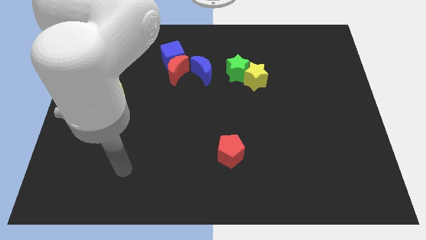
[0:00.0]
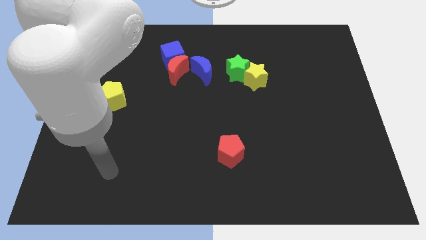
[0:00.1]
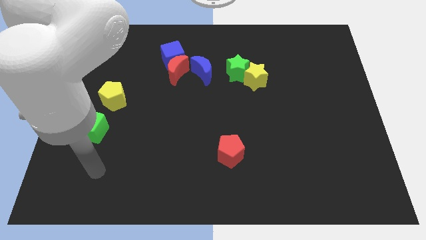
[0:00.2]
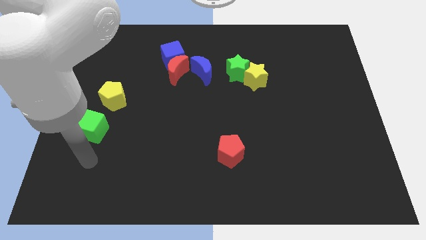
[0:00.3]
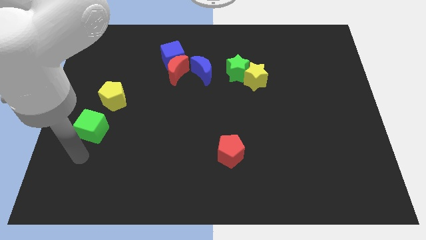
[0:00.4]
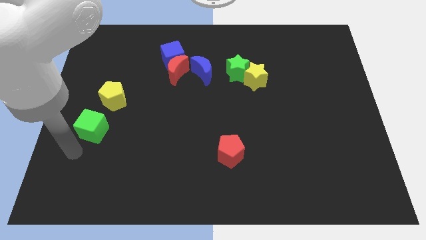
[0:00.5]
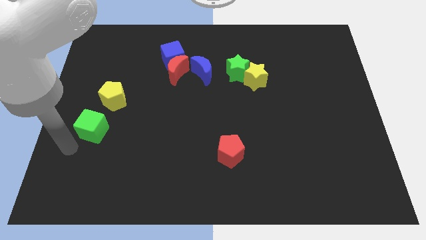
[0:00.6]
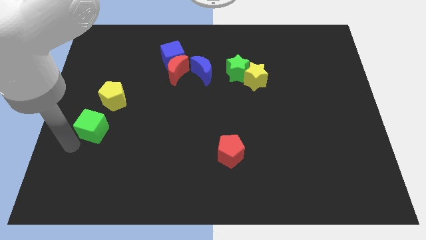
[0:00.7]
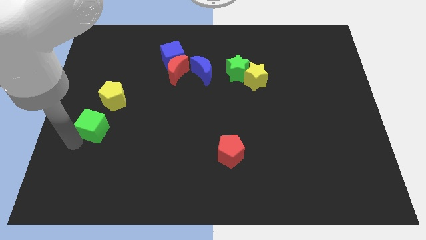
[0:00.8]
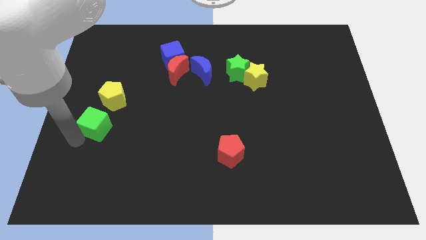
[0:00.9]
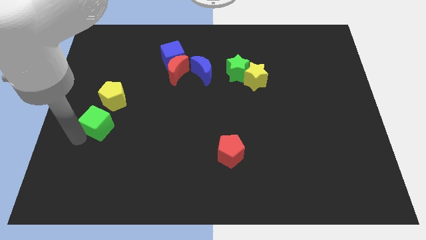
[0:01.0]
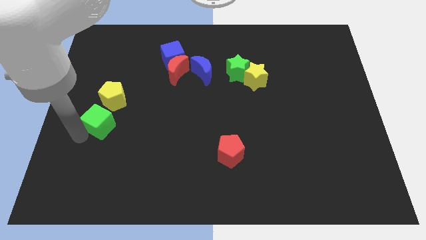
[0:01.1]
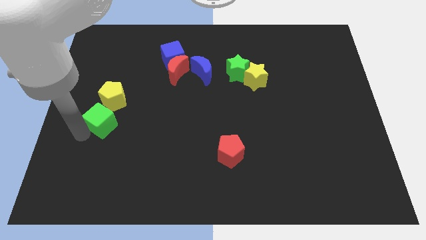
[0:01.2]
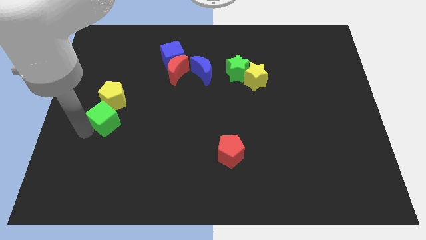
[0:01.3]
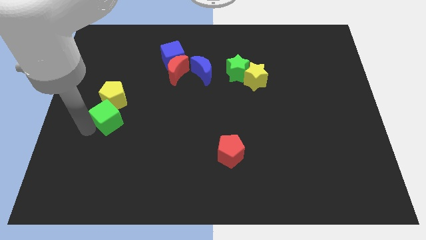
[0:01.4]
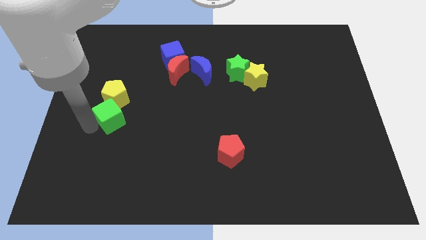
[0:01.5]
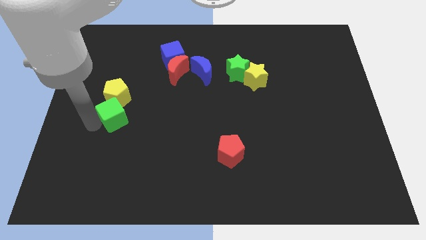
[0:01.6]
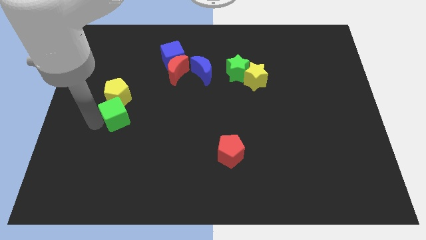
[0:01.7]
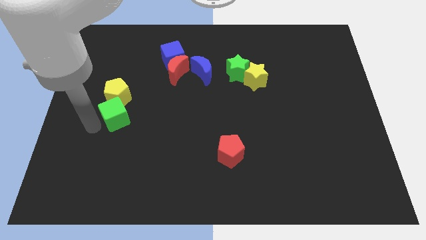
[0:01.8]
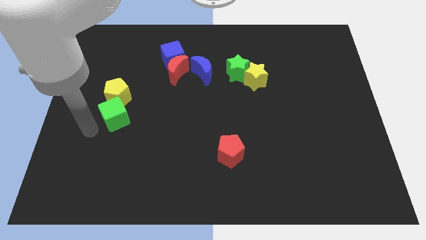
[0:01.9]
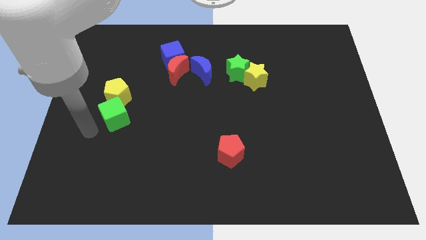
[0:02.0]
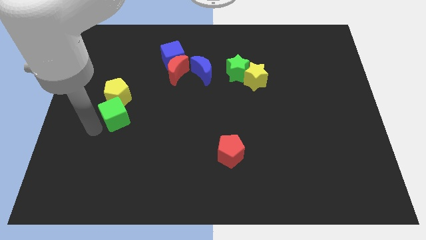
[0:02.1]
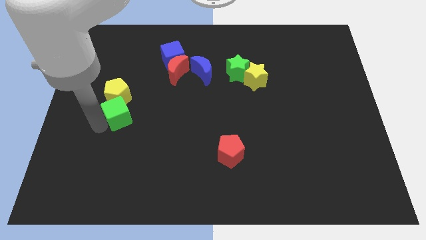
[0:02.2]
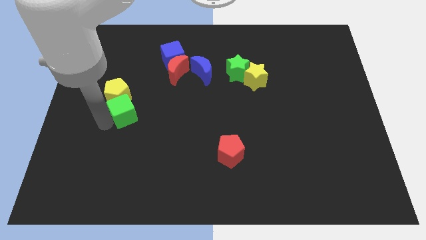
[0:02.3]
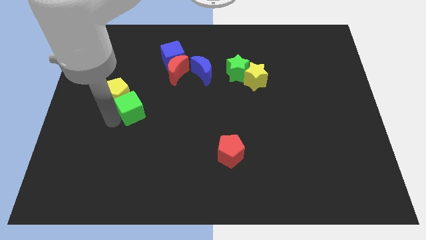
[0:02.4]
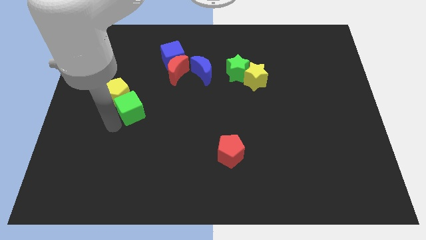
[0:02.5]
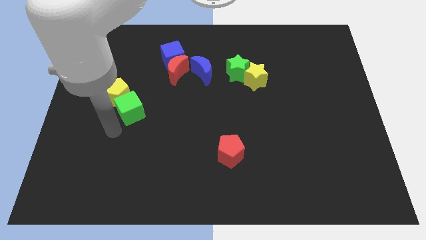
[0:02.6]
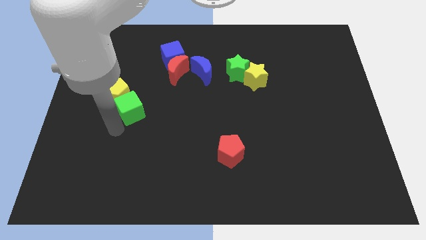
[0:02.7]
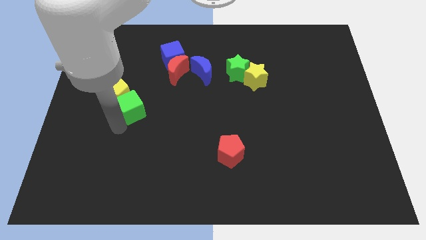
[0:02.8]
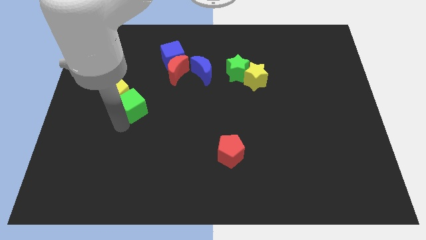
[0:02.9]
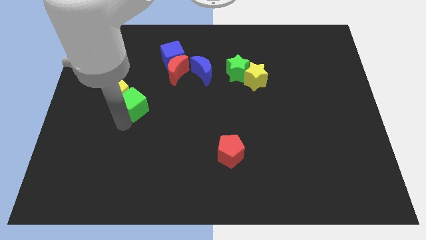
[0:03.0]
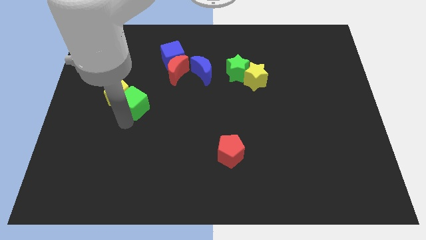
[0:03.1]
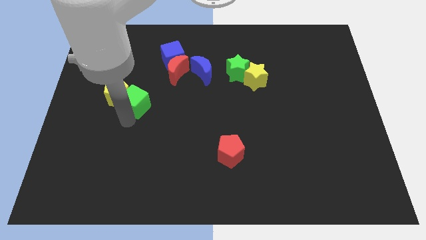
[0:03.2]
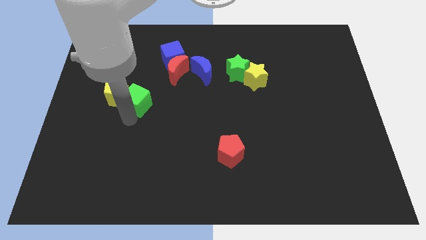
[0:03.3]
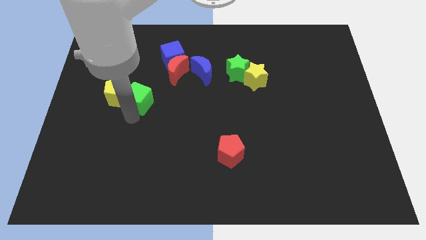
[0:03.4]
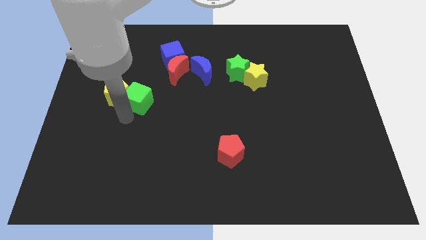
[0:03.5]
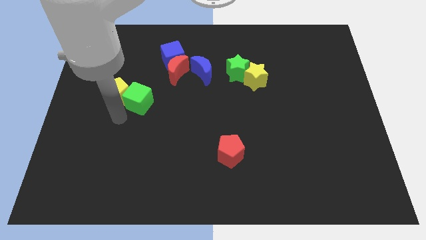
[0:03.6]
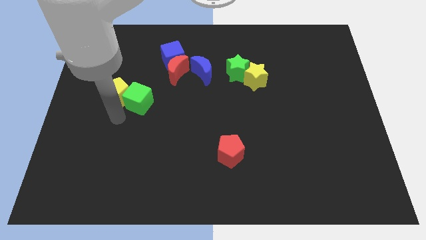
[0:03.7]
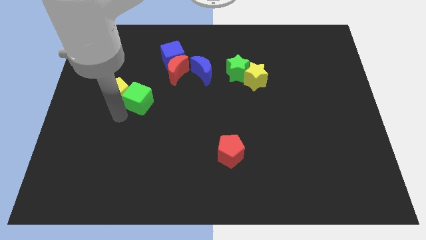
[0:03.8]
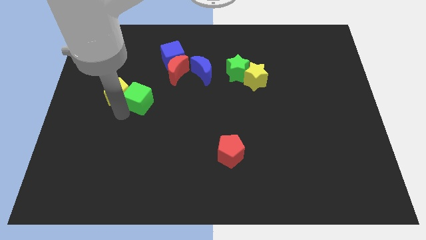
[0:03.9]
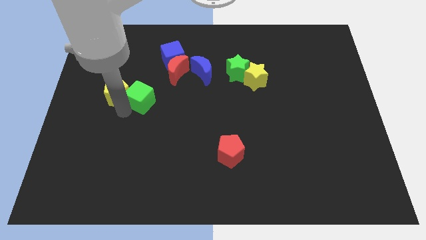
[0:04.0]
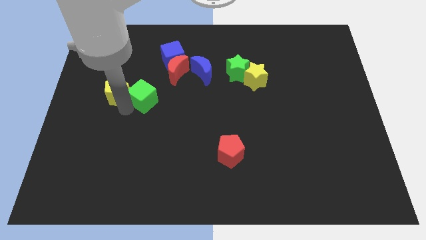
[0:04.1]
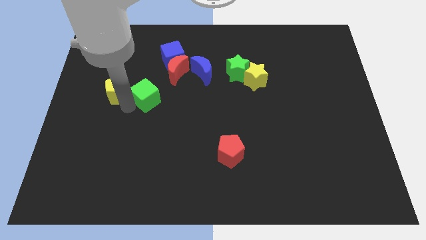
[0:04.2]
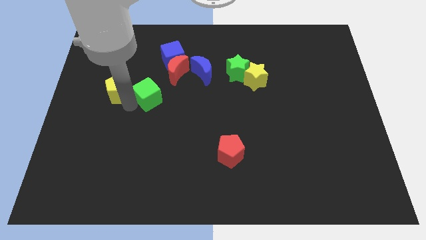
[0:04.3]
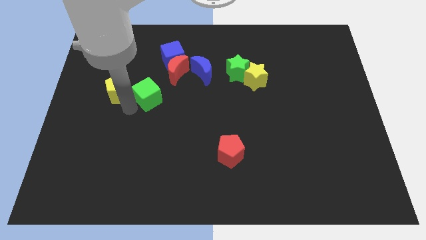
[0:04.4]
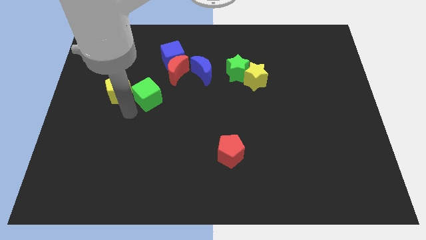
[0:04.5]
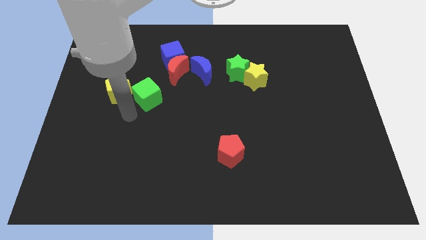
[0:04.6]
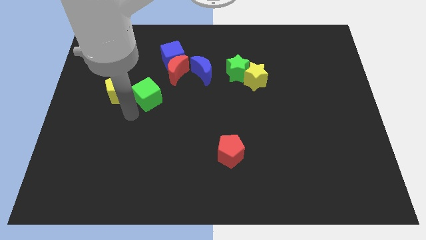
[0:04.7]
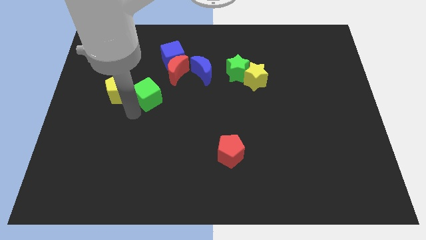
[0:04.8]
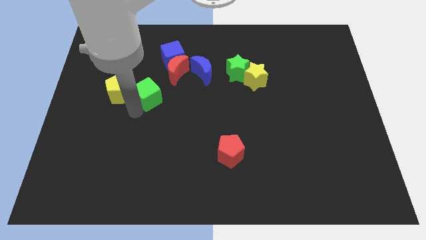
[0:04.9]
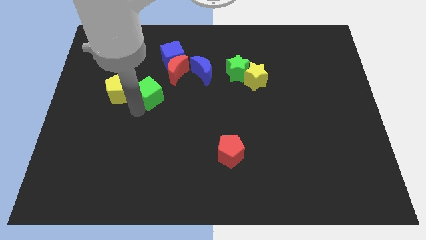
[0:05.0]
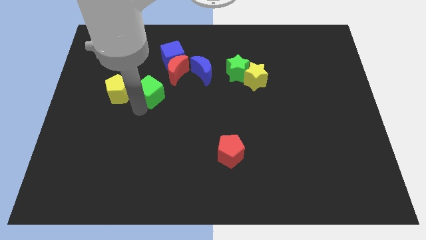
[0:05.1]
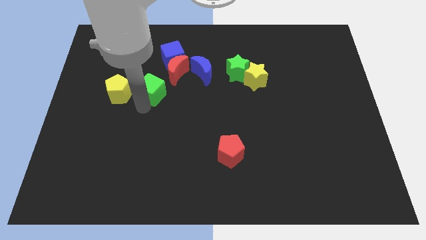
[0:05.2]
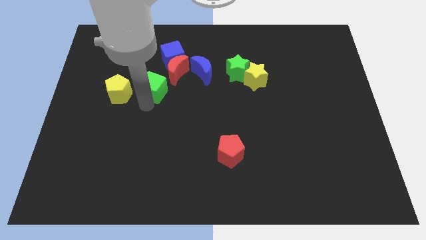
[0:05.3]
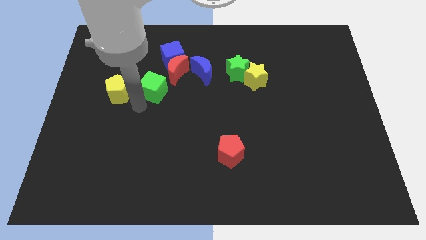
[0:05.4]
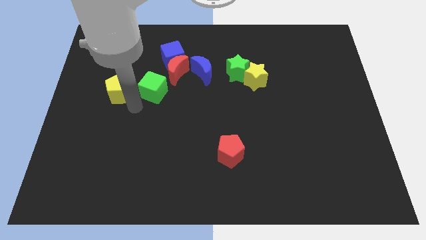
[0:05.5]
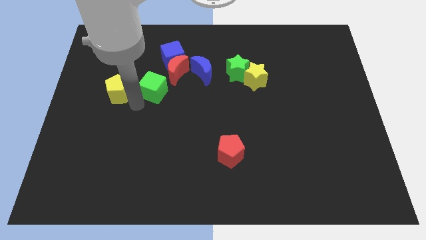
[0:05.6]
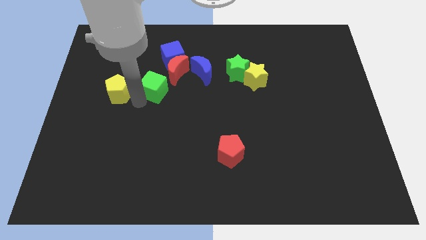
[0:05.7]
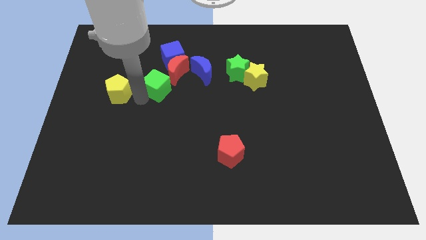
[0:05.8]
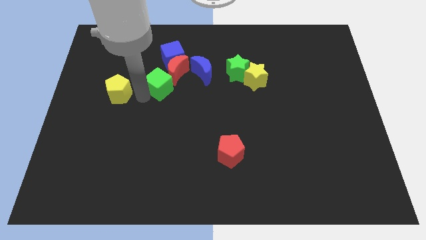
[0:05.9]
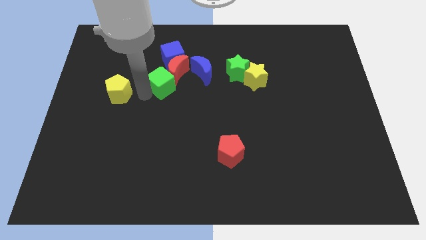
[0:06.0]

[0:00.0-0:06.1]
move the green cube to the red moon

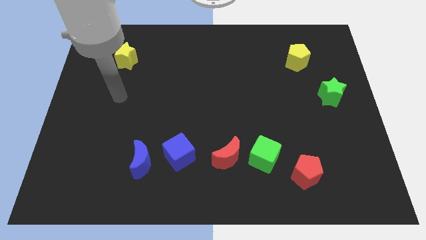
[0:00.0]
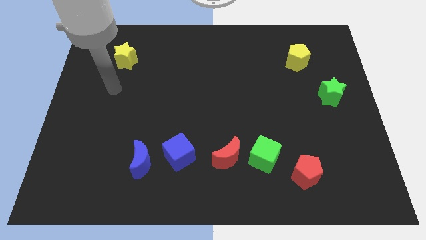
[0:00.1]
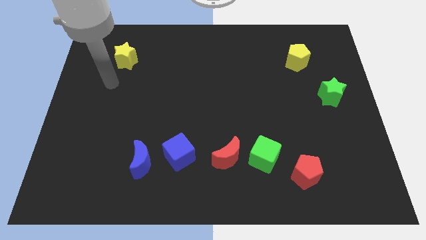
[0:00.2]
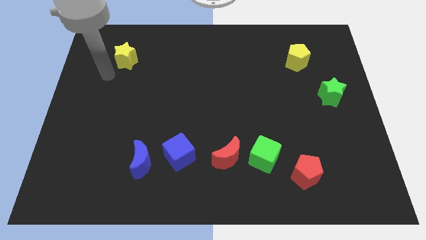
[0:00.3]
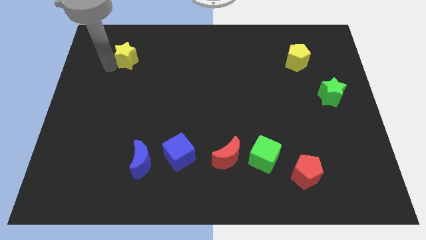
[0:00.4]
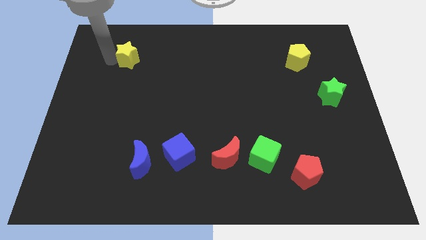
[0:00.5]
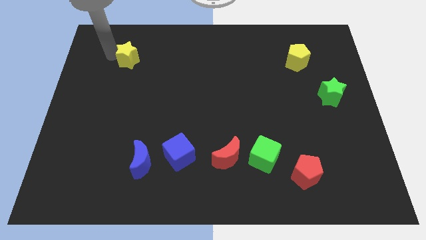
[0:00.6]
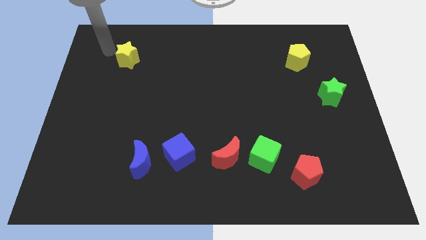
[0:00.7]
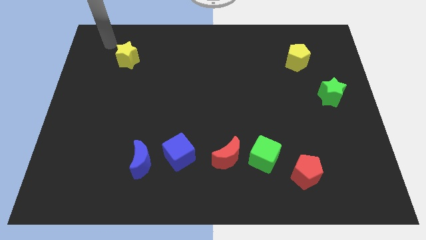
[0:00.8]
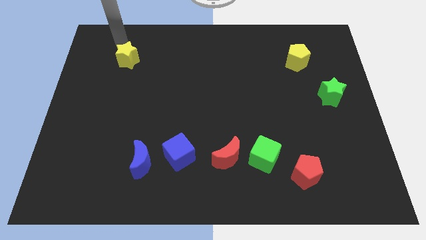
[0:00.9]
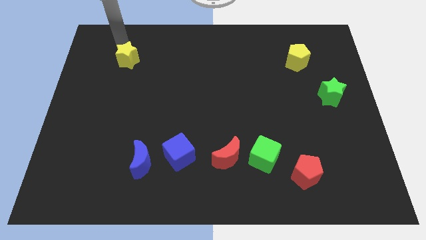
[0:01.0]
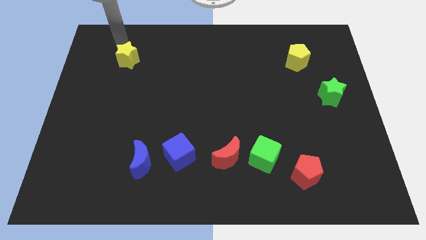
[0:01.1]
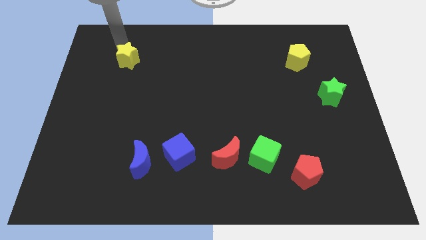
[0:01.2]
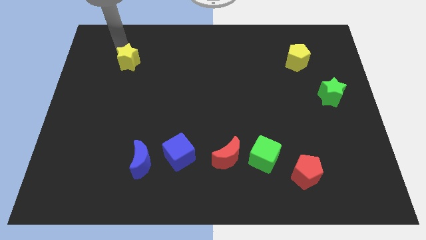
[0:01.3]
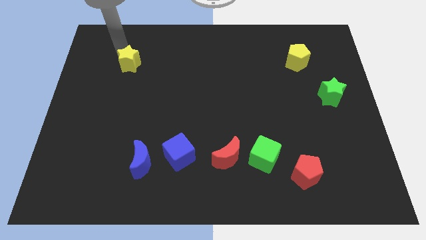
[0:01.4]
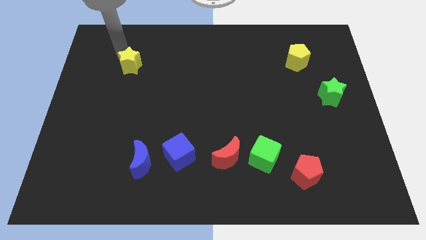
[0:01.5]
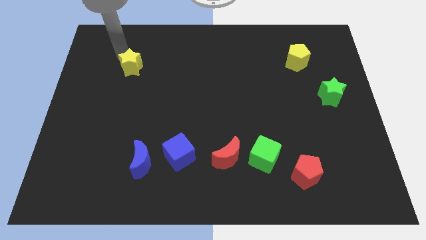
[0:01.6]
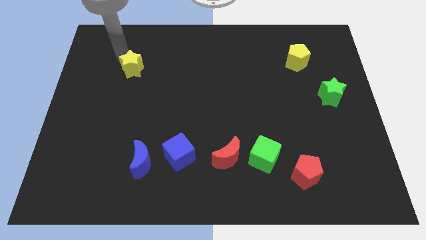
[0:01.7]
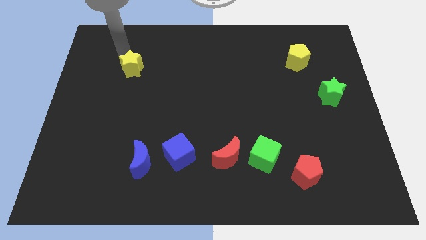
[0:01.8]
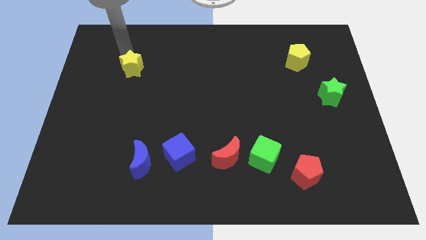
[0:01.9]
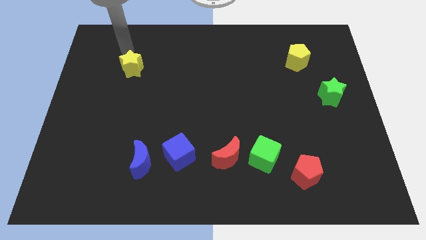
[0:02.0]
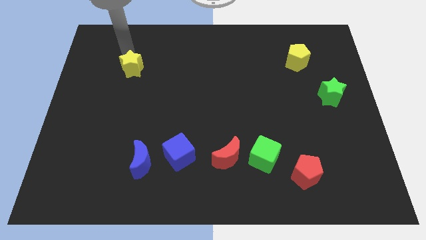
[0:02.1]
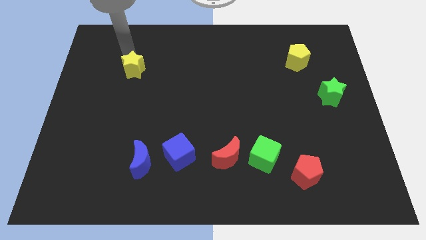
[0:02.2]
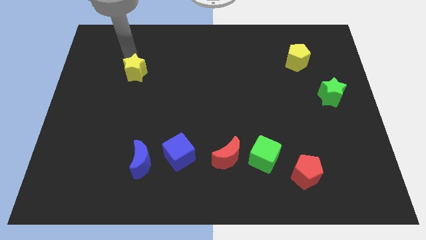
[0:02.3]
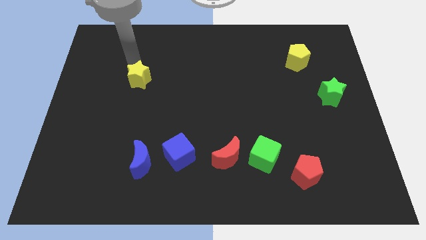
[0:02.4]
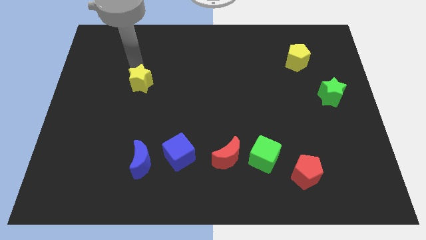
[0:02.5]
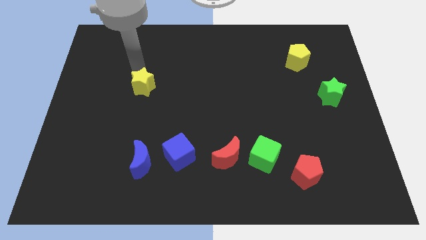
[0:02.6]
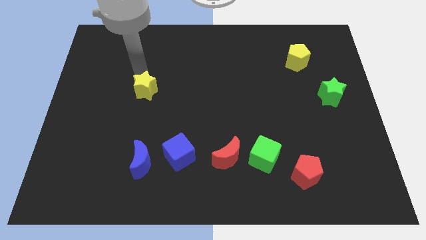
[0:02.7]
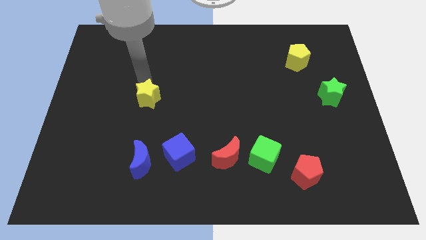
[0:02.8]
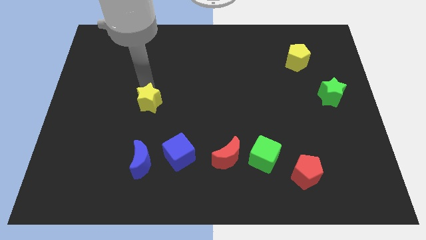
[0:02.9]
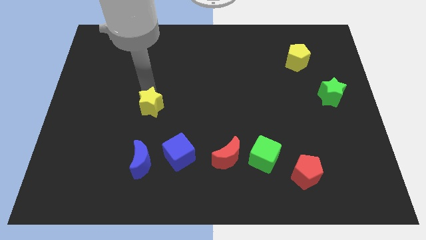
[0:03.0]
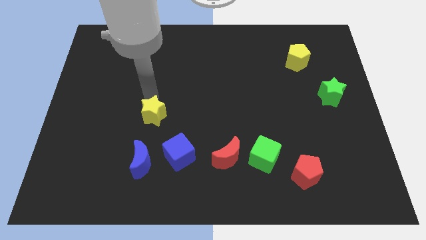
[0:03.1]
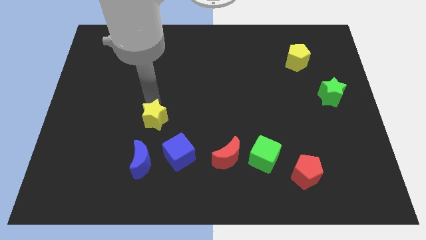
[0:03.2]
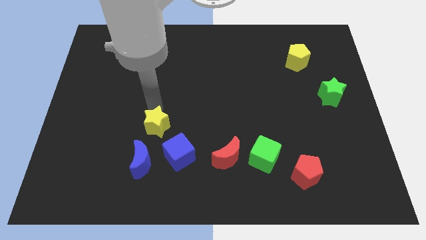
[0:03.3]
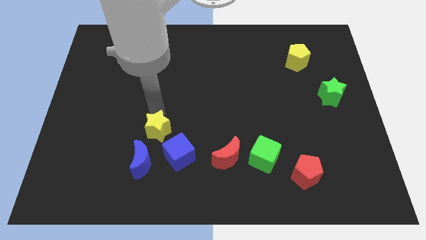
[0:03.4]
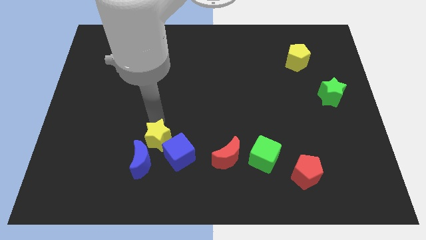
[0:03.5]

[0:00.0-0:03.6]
push the yellow star to the blue cube
